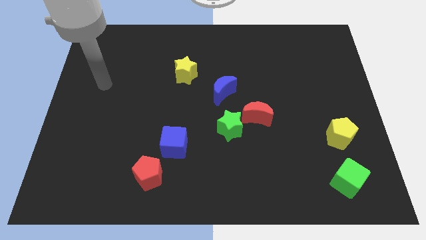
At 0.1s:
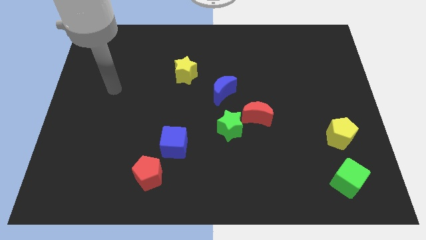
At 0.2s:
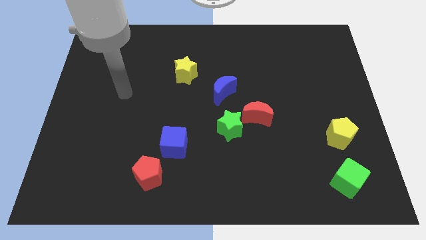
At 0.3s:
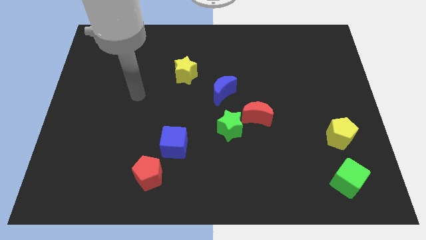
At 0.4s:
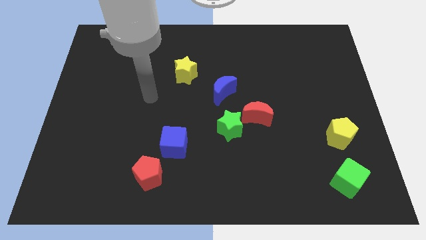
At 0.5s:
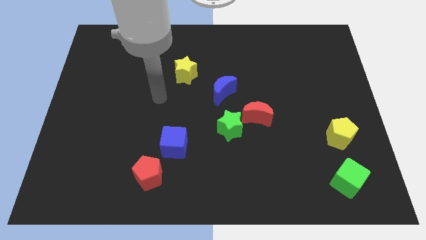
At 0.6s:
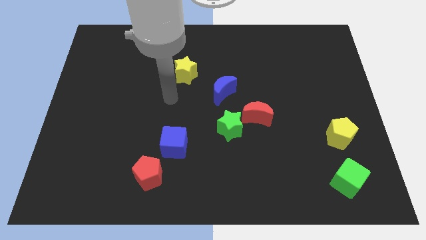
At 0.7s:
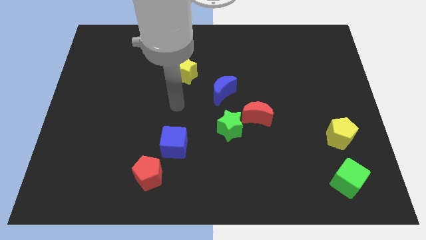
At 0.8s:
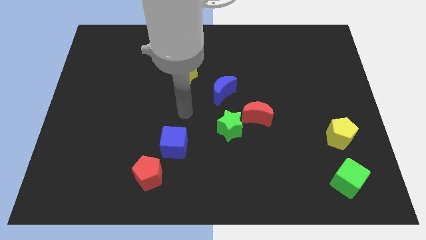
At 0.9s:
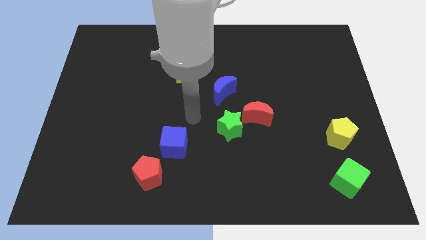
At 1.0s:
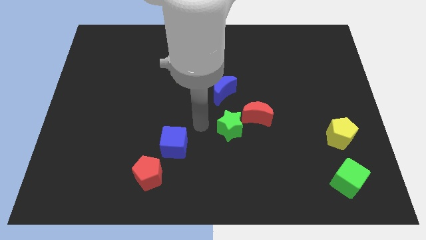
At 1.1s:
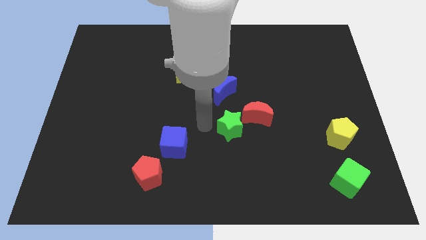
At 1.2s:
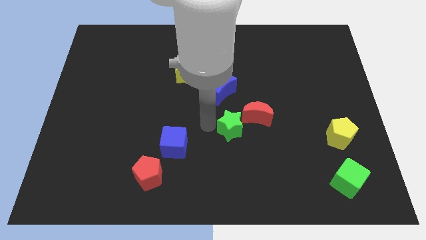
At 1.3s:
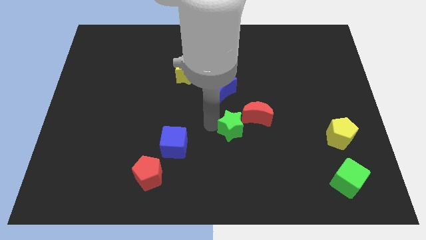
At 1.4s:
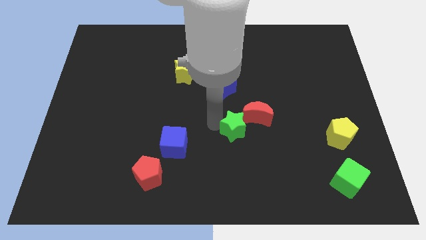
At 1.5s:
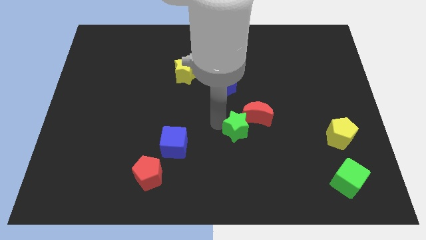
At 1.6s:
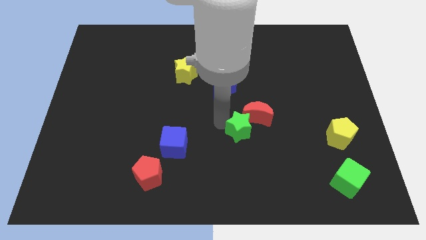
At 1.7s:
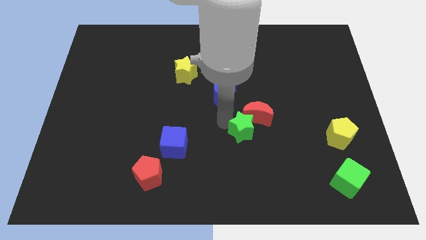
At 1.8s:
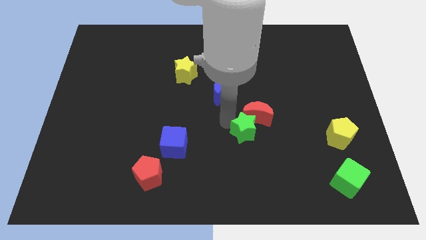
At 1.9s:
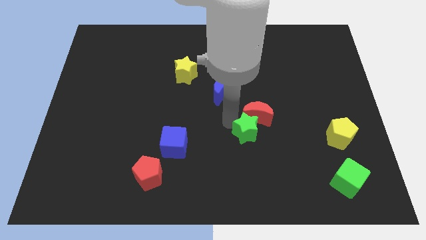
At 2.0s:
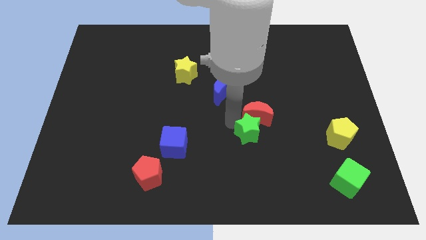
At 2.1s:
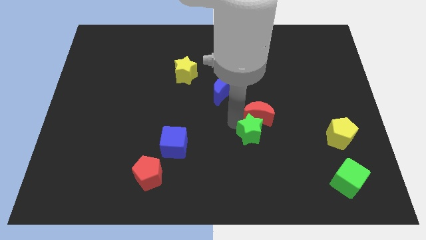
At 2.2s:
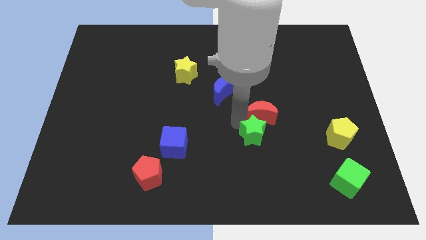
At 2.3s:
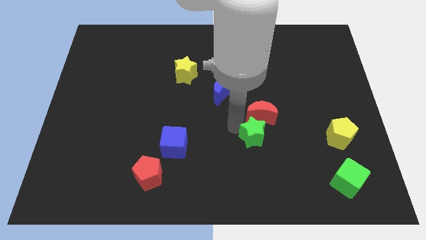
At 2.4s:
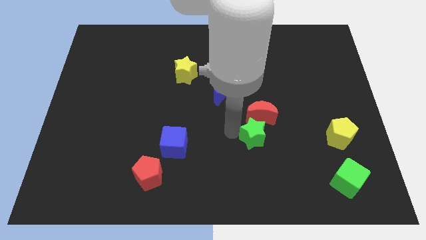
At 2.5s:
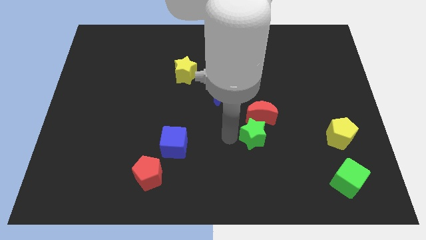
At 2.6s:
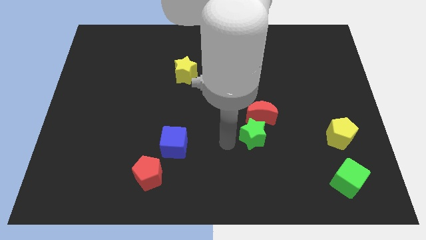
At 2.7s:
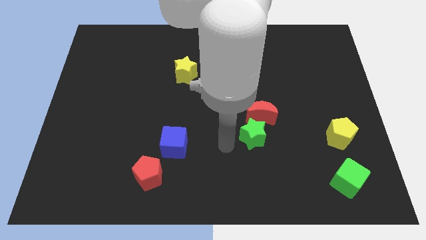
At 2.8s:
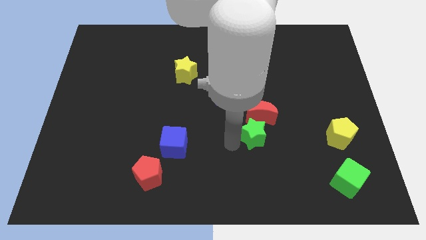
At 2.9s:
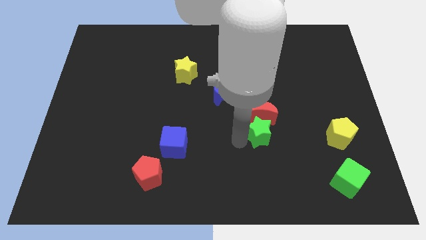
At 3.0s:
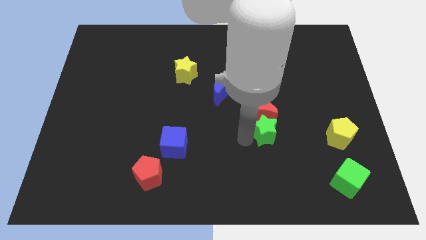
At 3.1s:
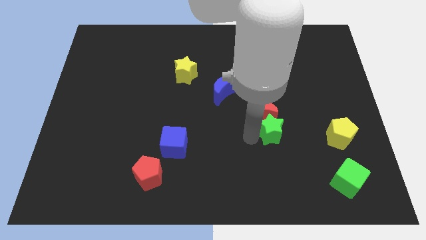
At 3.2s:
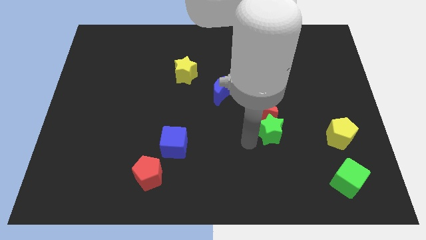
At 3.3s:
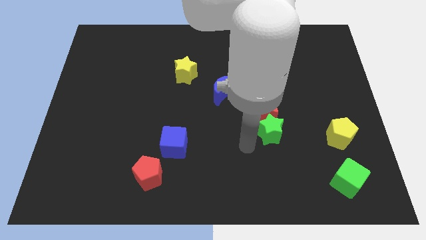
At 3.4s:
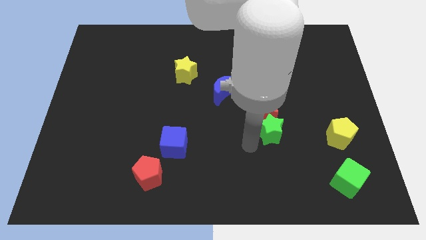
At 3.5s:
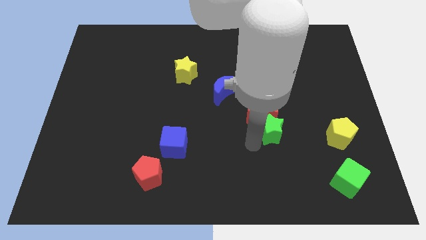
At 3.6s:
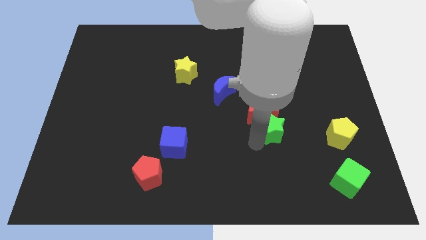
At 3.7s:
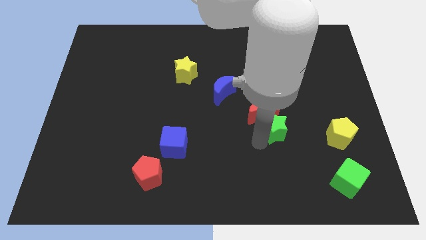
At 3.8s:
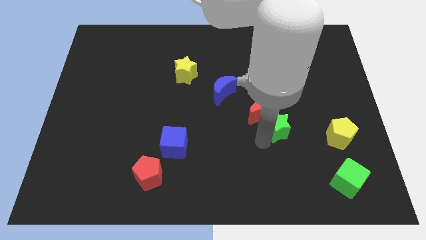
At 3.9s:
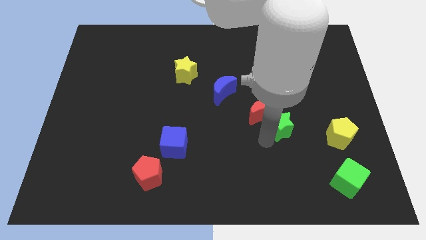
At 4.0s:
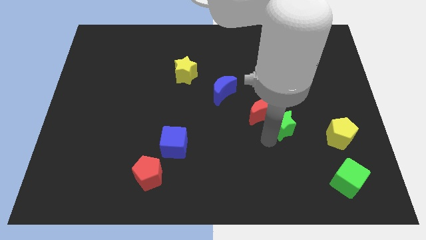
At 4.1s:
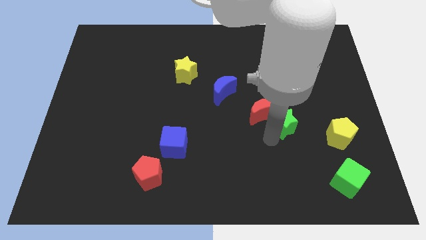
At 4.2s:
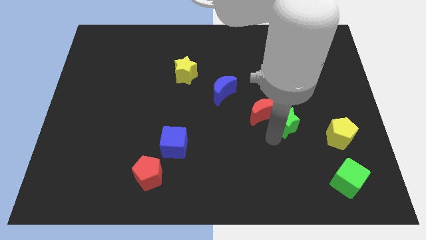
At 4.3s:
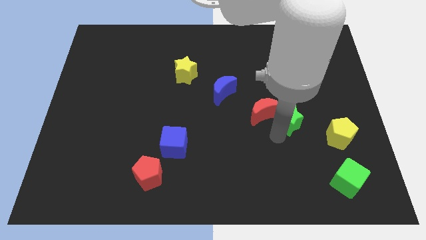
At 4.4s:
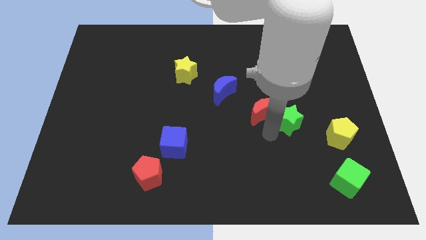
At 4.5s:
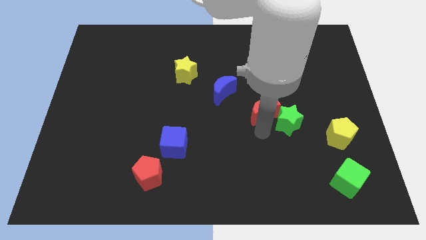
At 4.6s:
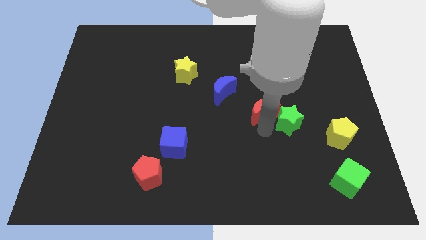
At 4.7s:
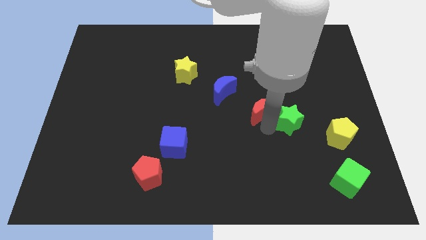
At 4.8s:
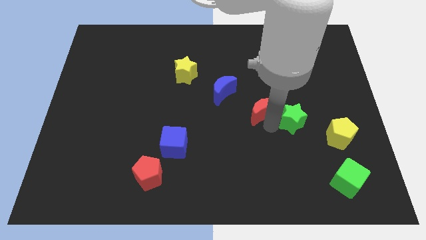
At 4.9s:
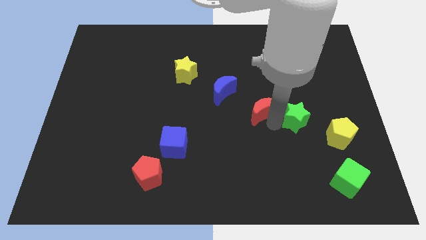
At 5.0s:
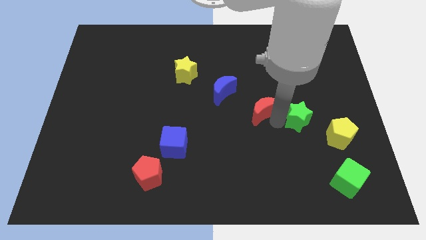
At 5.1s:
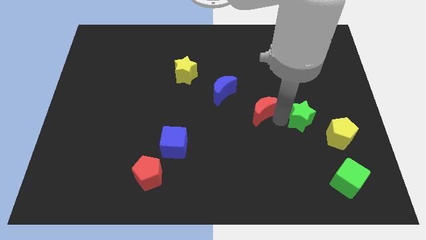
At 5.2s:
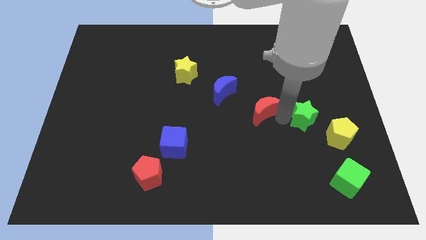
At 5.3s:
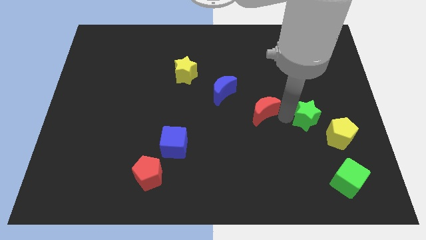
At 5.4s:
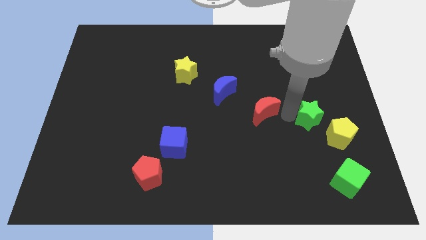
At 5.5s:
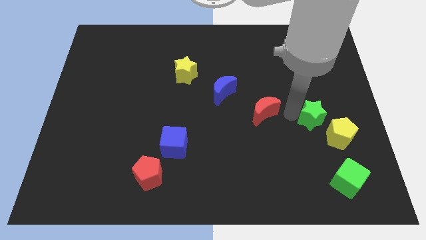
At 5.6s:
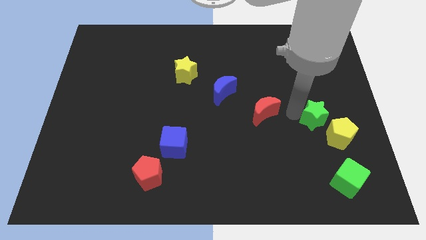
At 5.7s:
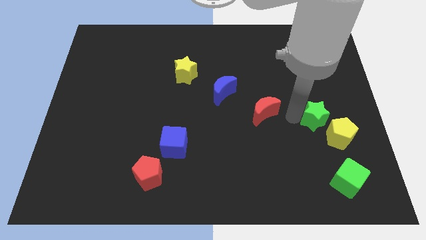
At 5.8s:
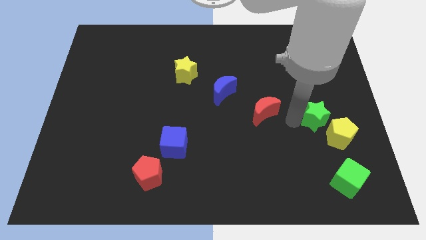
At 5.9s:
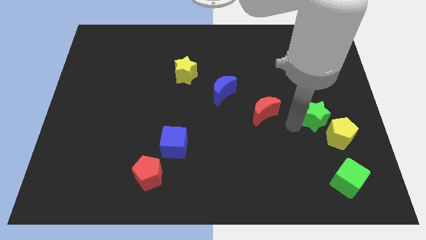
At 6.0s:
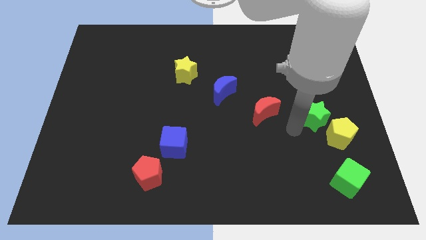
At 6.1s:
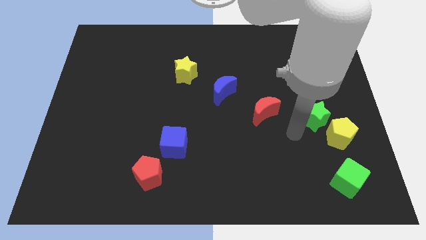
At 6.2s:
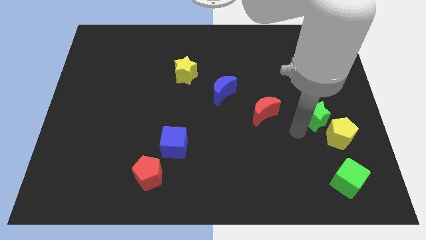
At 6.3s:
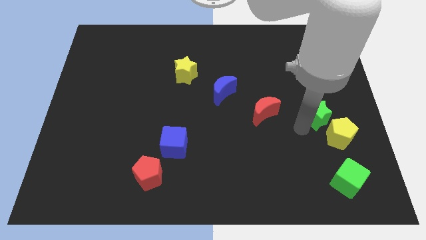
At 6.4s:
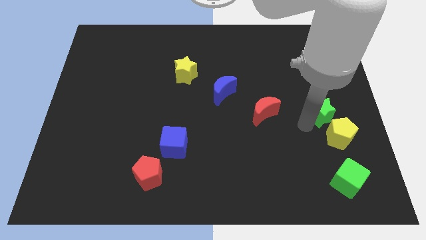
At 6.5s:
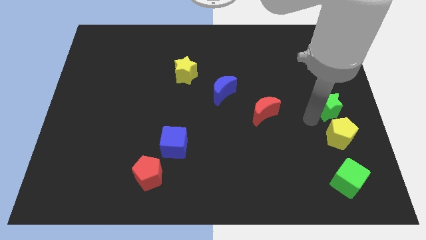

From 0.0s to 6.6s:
move the green star to the right side of the board

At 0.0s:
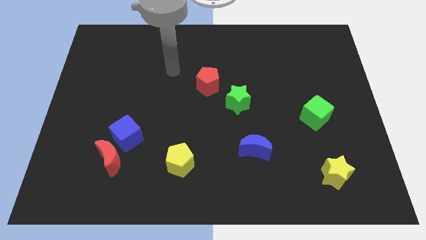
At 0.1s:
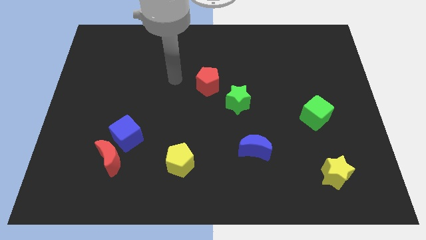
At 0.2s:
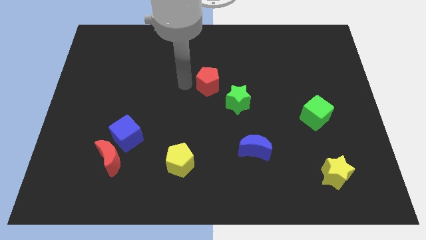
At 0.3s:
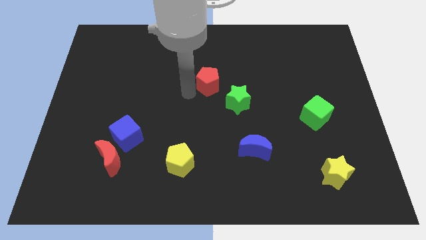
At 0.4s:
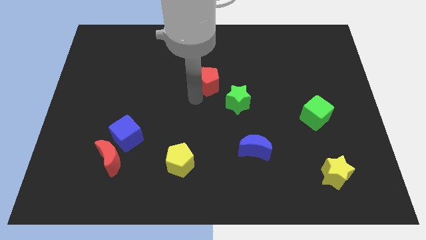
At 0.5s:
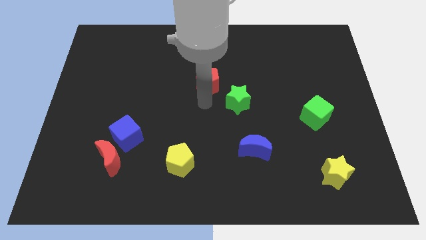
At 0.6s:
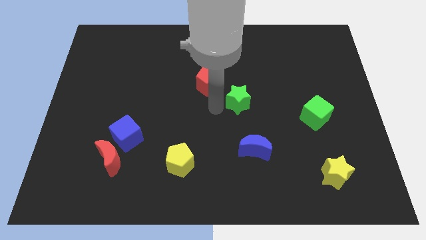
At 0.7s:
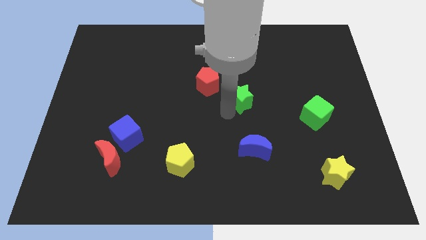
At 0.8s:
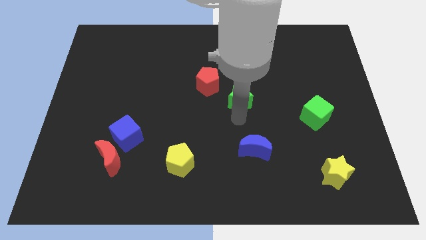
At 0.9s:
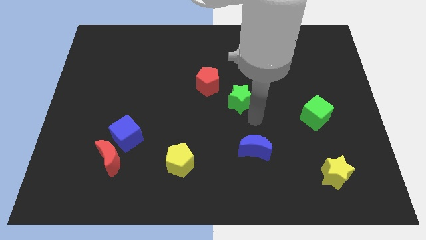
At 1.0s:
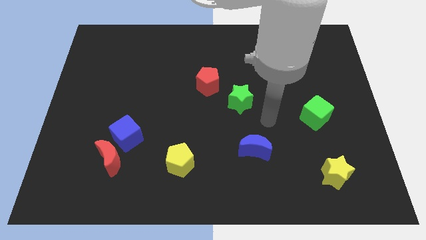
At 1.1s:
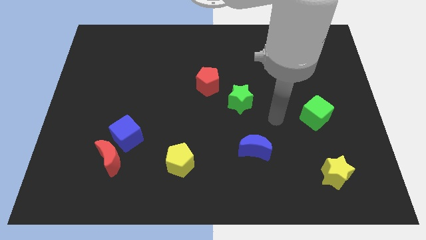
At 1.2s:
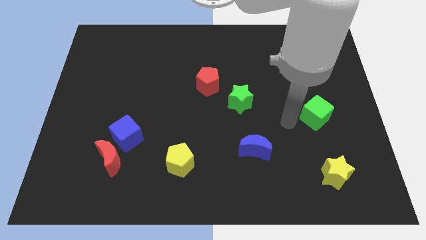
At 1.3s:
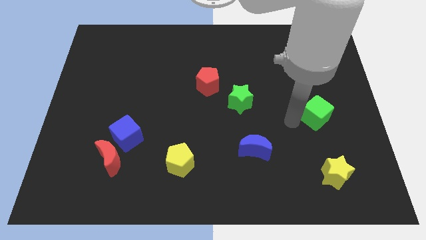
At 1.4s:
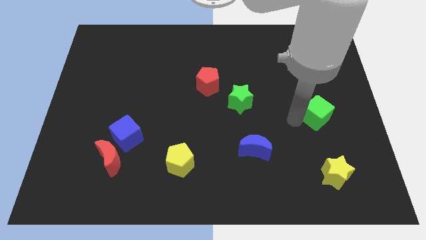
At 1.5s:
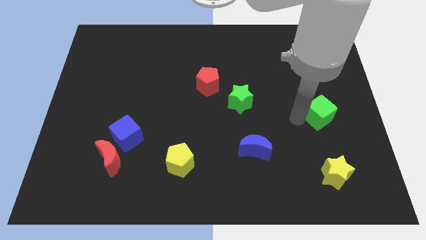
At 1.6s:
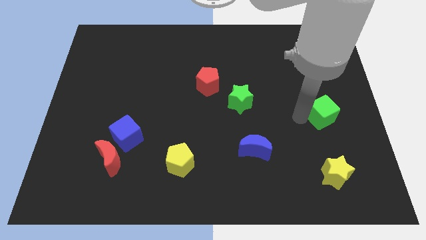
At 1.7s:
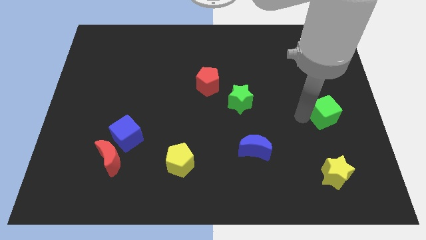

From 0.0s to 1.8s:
slide the green cube to the right side of the board
